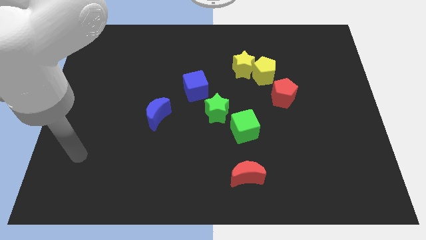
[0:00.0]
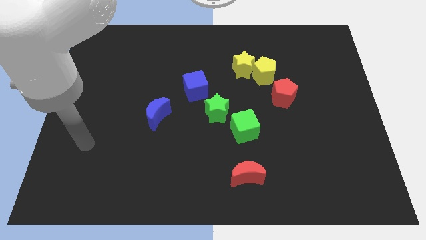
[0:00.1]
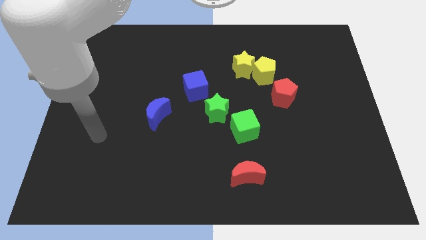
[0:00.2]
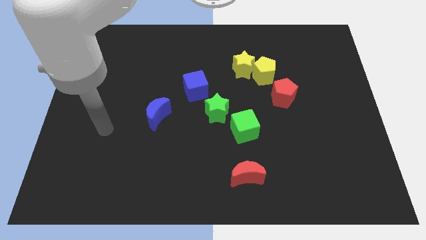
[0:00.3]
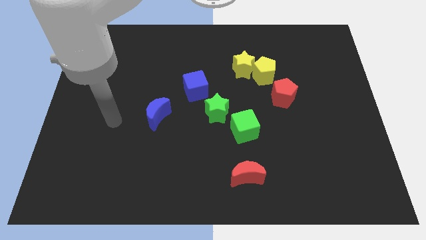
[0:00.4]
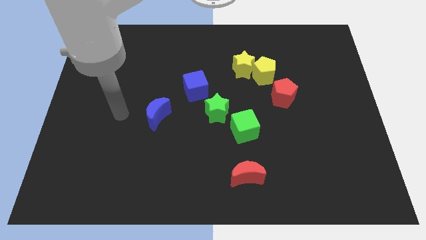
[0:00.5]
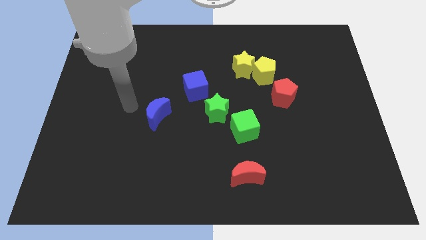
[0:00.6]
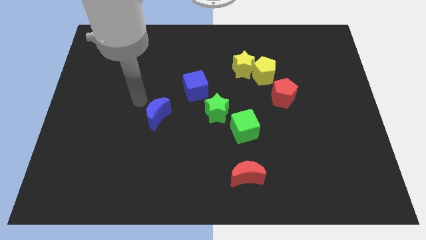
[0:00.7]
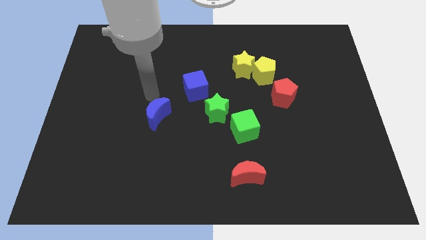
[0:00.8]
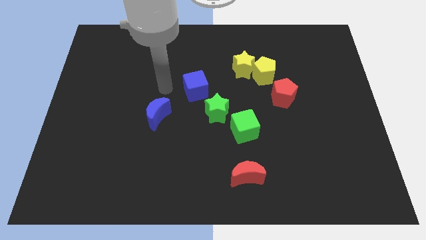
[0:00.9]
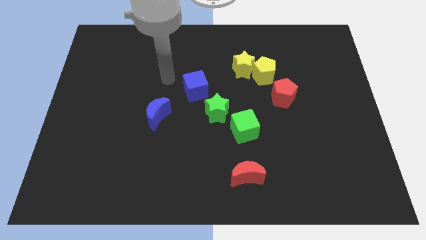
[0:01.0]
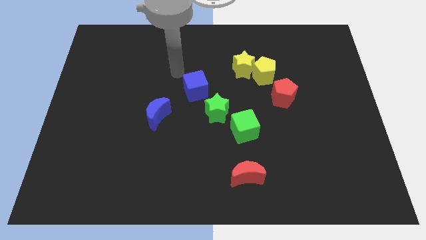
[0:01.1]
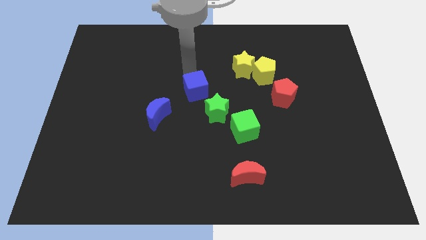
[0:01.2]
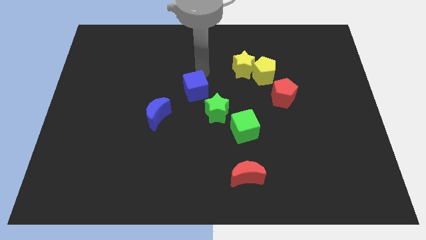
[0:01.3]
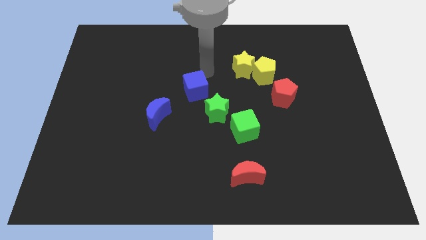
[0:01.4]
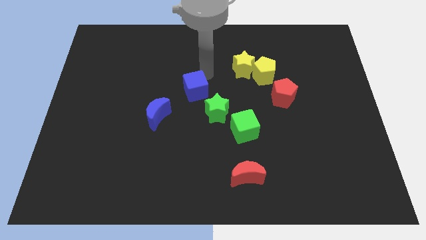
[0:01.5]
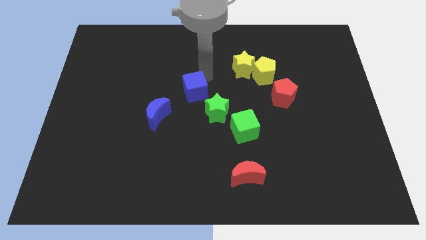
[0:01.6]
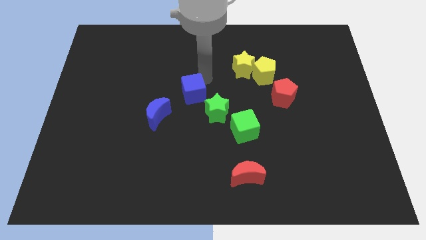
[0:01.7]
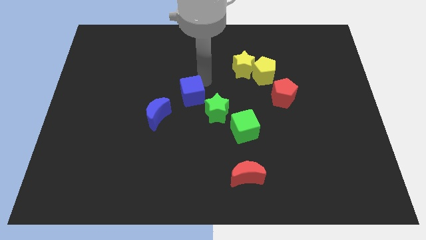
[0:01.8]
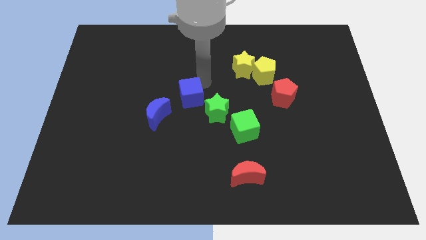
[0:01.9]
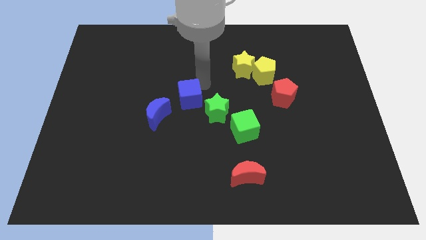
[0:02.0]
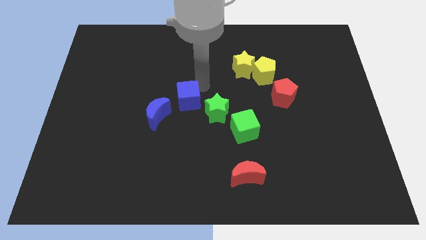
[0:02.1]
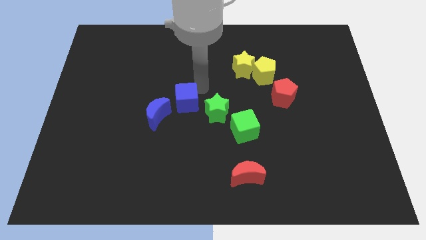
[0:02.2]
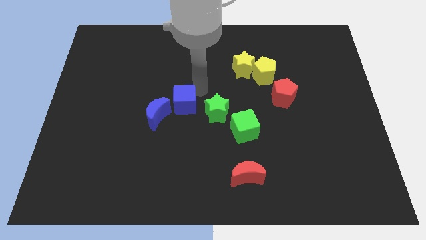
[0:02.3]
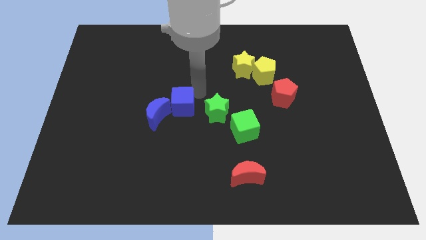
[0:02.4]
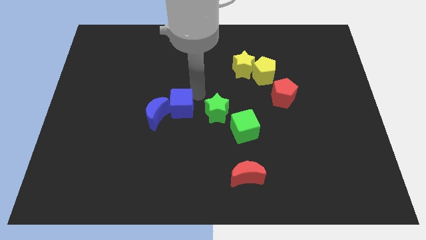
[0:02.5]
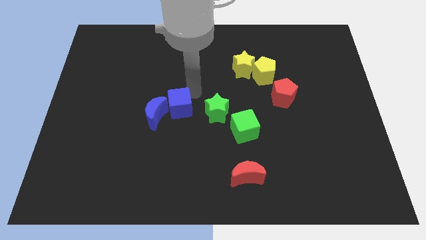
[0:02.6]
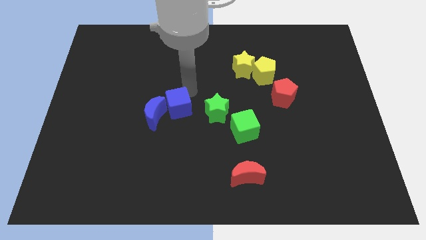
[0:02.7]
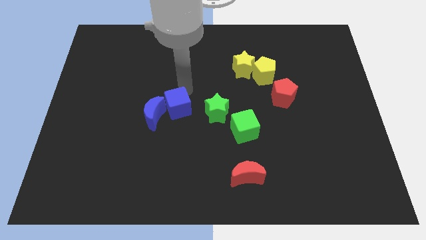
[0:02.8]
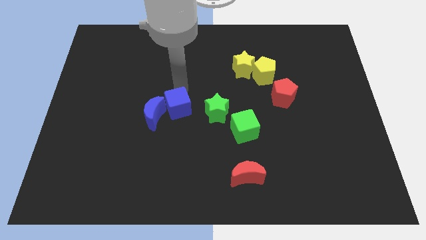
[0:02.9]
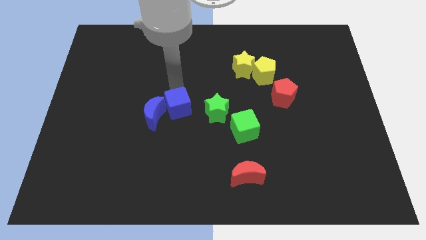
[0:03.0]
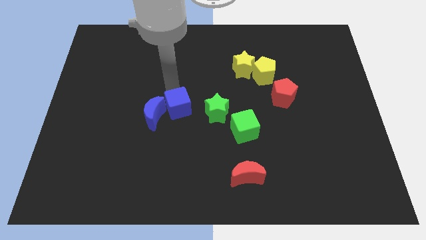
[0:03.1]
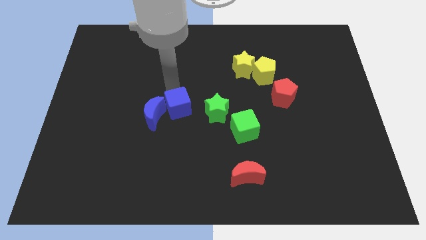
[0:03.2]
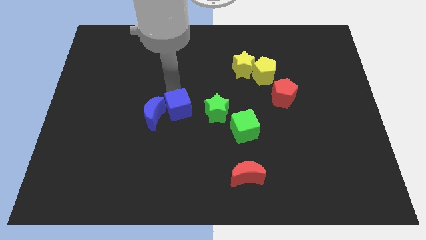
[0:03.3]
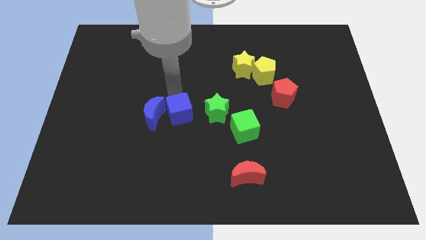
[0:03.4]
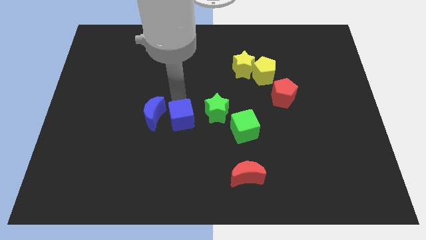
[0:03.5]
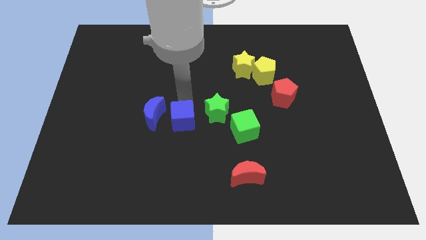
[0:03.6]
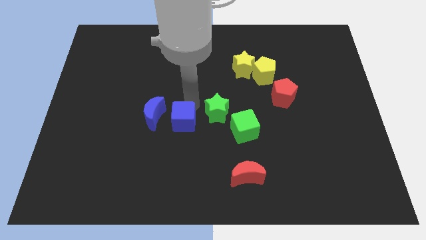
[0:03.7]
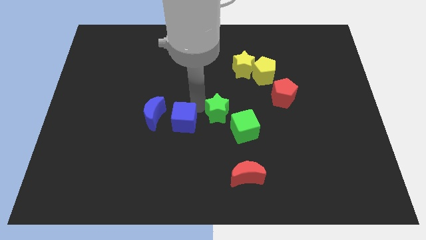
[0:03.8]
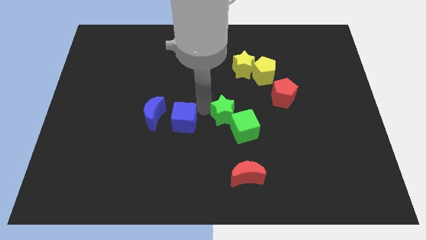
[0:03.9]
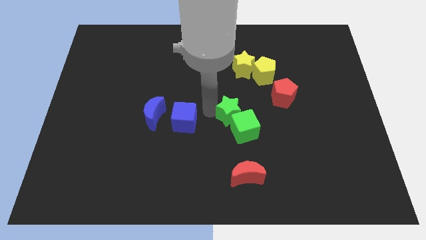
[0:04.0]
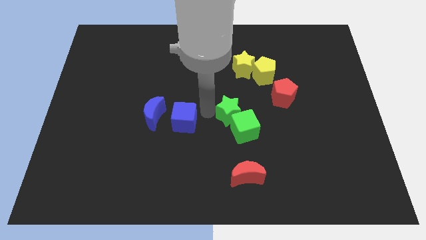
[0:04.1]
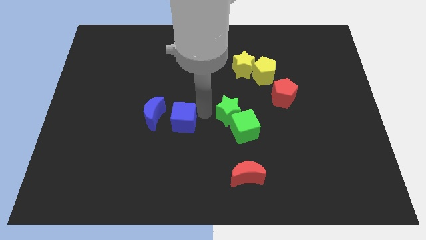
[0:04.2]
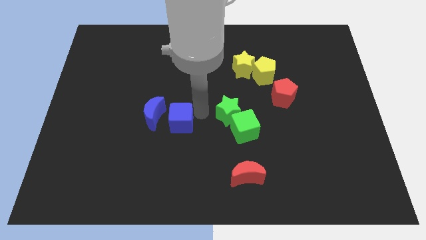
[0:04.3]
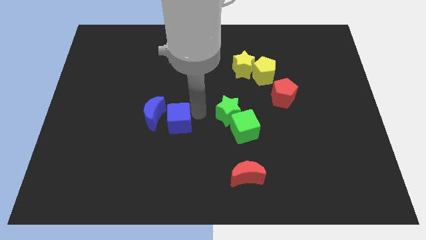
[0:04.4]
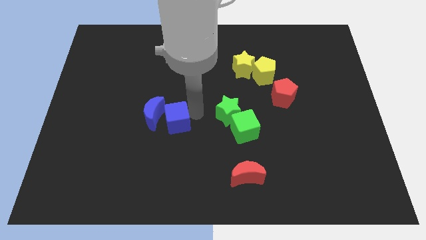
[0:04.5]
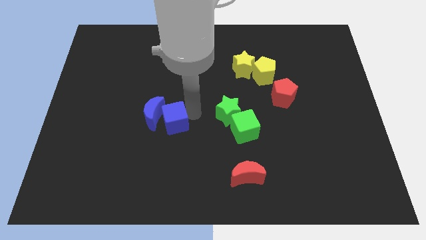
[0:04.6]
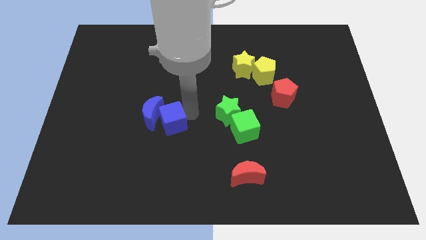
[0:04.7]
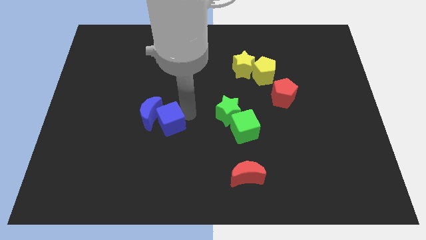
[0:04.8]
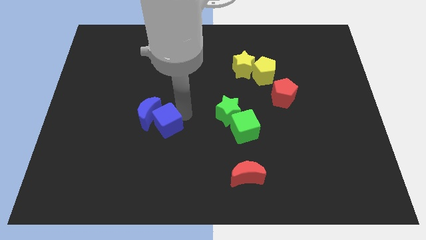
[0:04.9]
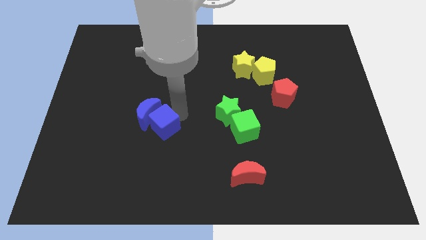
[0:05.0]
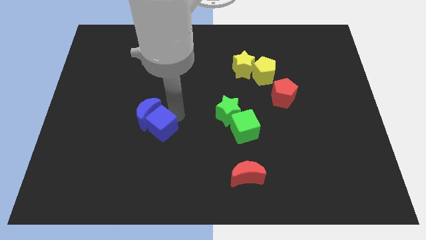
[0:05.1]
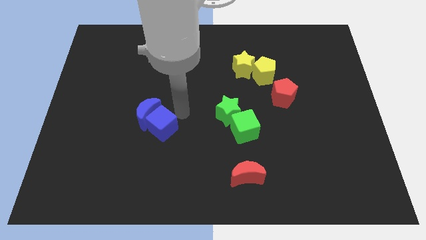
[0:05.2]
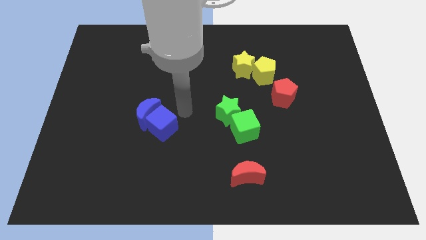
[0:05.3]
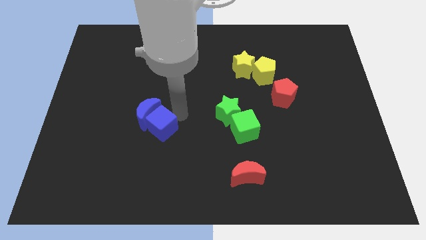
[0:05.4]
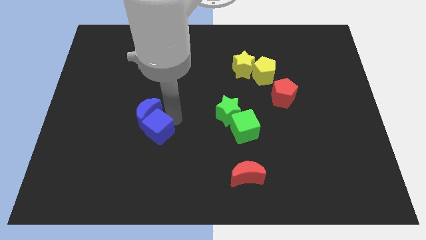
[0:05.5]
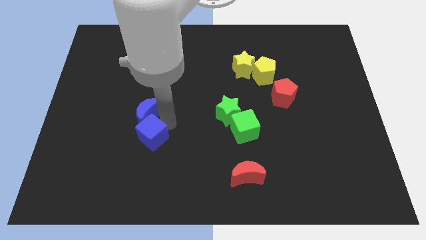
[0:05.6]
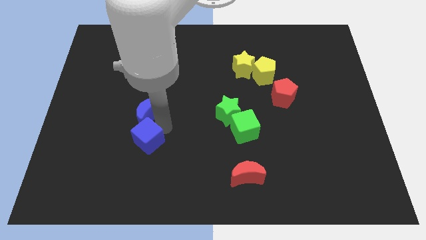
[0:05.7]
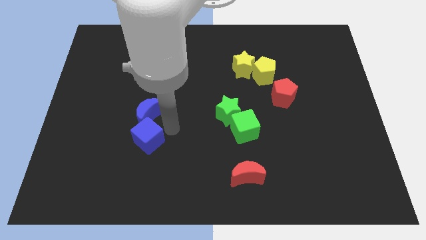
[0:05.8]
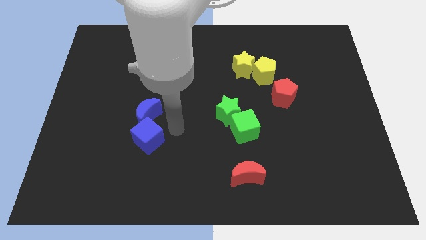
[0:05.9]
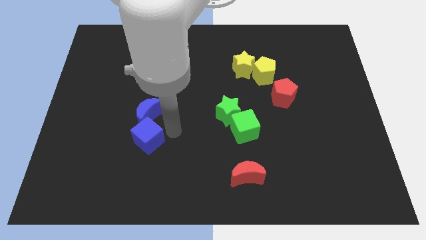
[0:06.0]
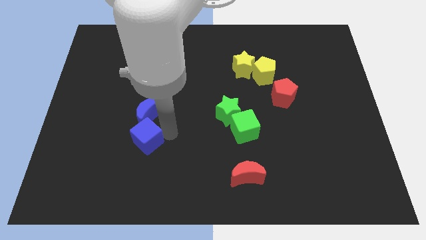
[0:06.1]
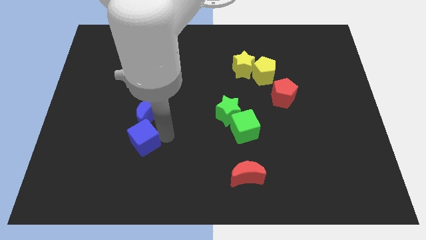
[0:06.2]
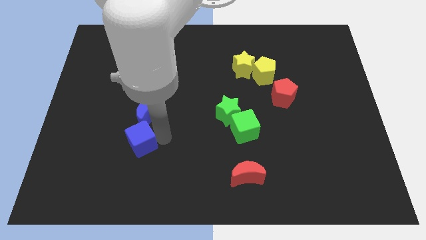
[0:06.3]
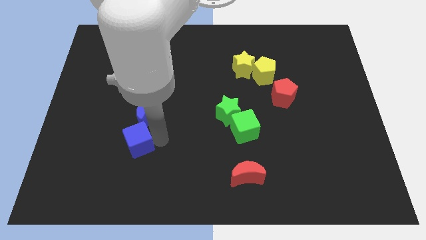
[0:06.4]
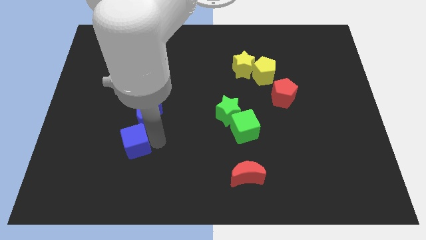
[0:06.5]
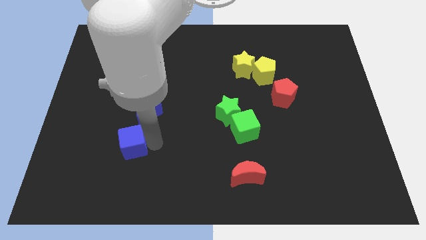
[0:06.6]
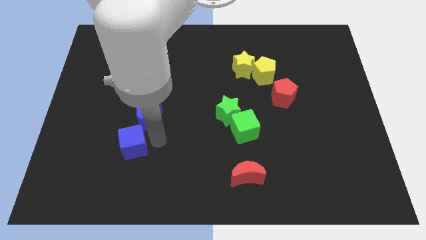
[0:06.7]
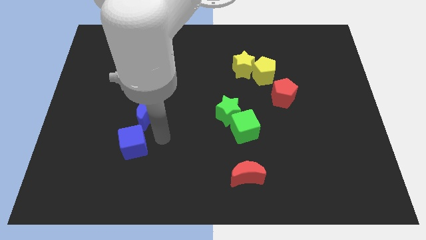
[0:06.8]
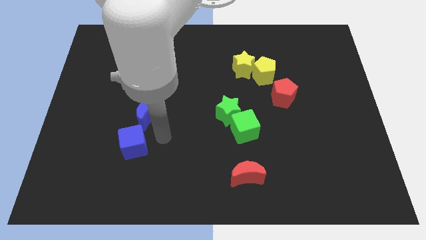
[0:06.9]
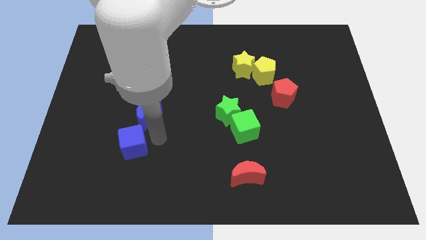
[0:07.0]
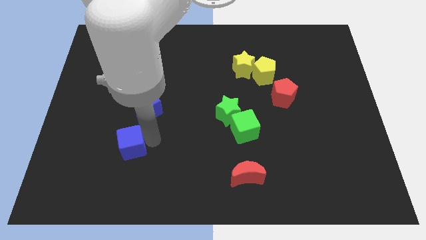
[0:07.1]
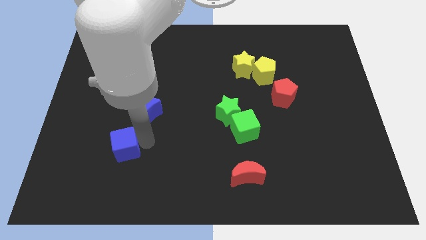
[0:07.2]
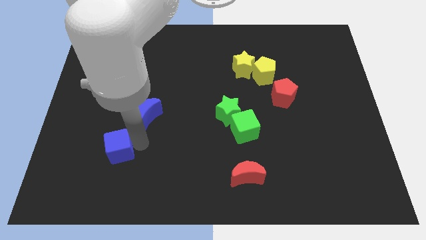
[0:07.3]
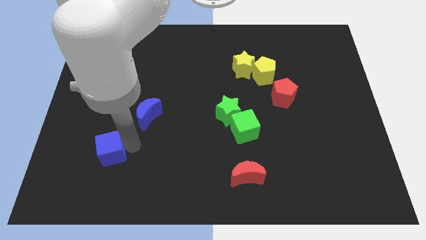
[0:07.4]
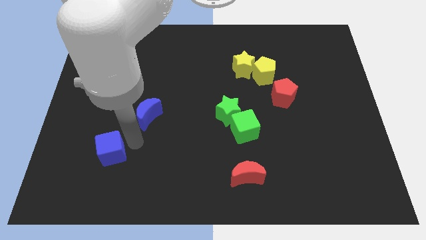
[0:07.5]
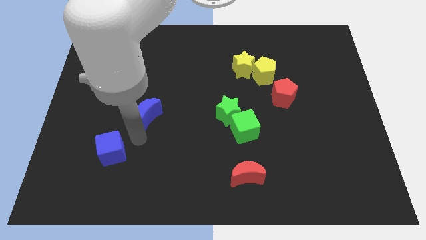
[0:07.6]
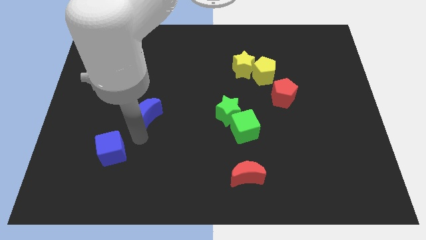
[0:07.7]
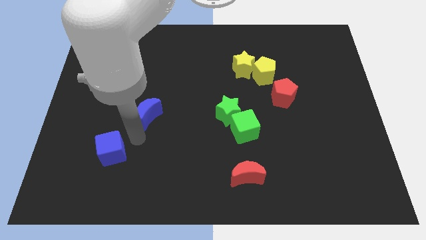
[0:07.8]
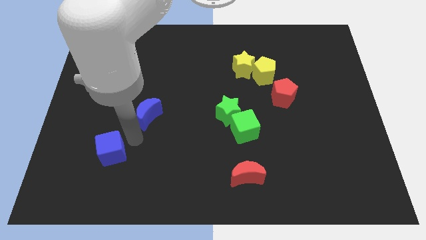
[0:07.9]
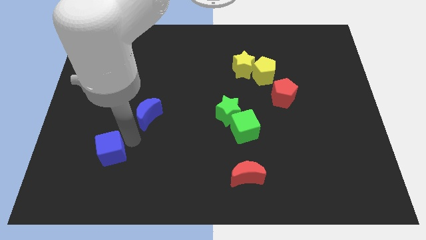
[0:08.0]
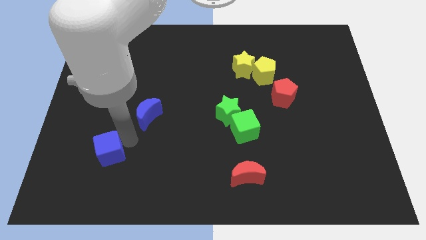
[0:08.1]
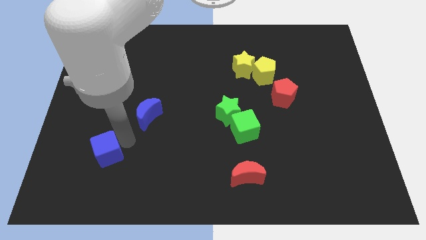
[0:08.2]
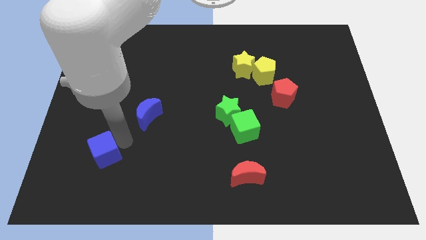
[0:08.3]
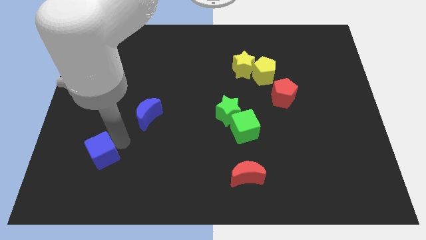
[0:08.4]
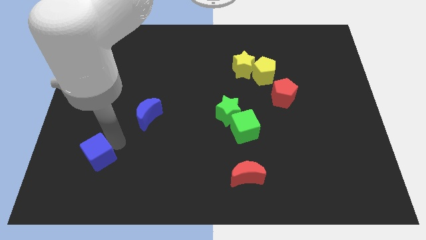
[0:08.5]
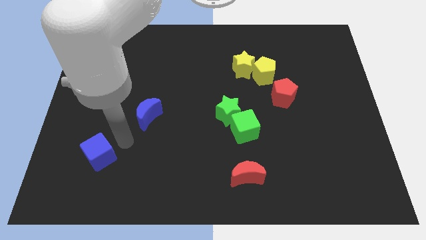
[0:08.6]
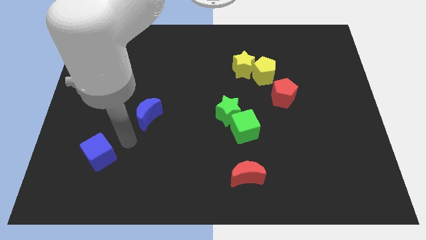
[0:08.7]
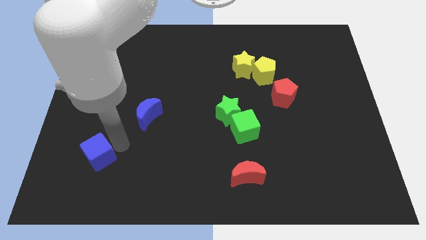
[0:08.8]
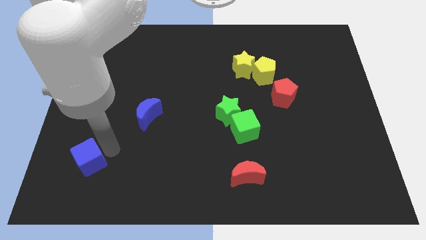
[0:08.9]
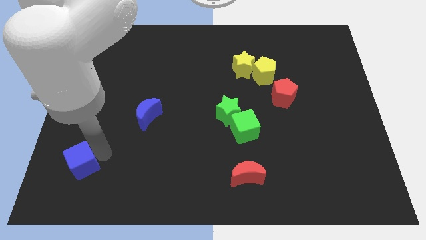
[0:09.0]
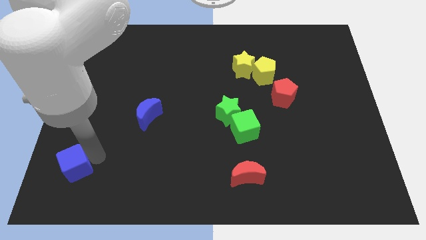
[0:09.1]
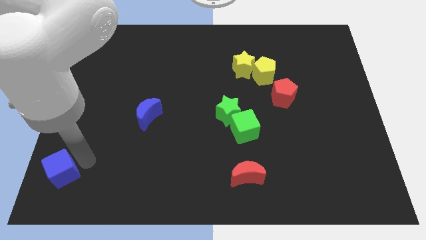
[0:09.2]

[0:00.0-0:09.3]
push the blue cube to the bottom left
